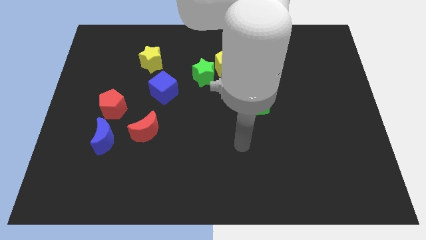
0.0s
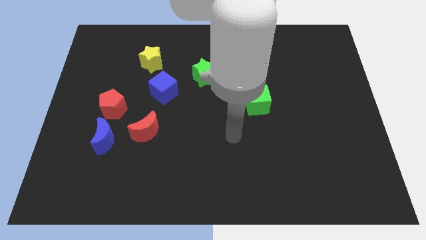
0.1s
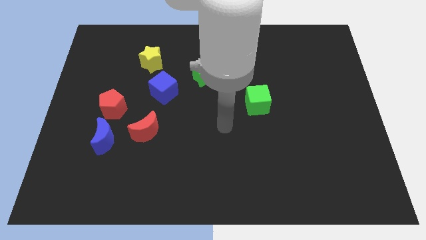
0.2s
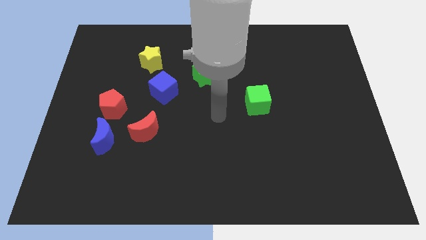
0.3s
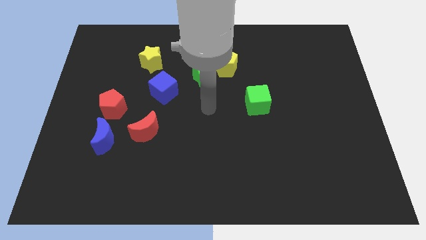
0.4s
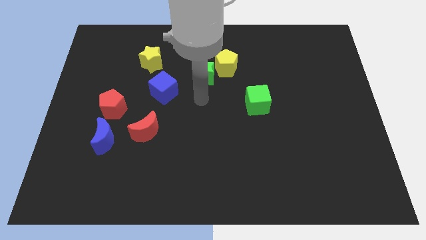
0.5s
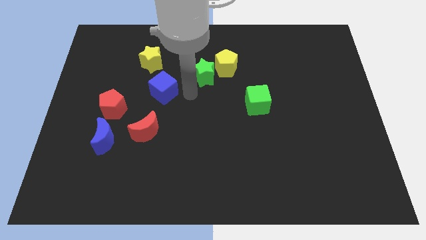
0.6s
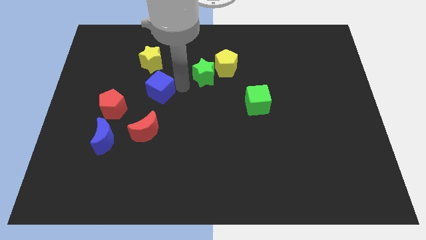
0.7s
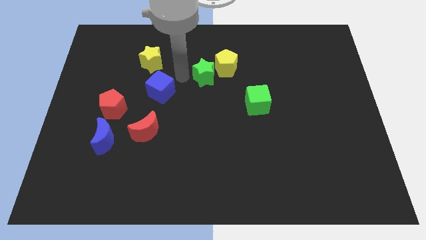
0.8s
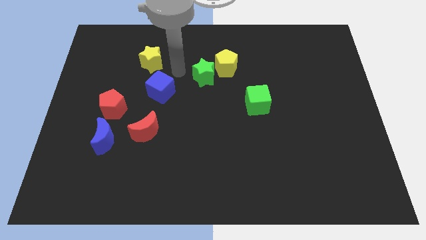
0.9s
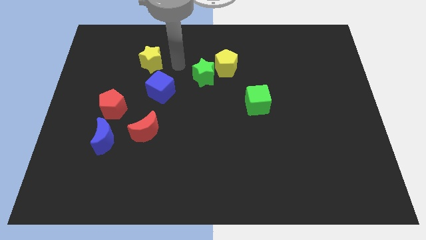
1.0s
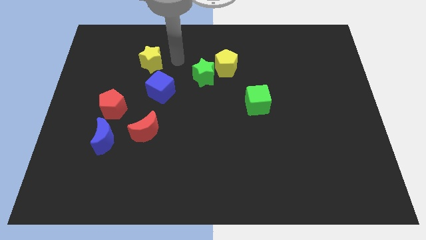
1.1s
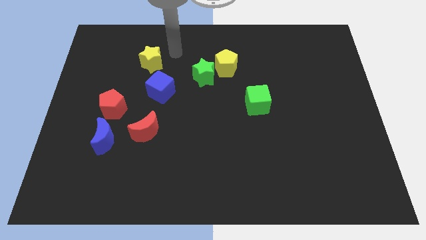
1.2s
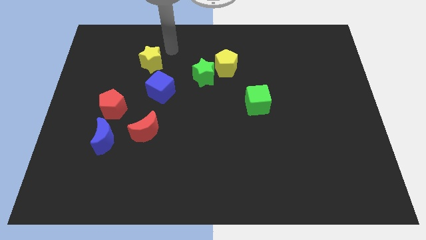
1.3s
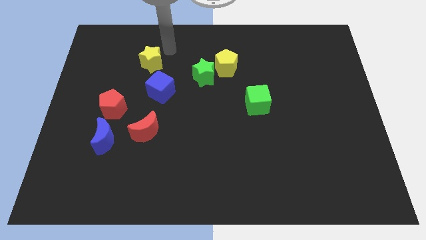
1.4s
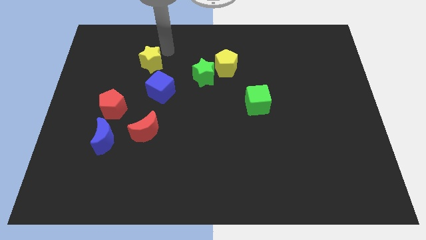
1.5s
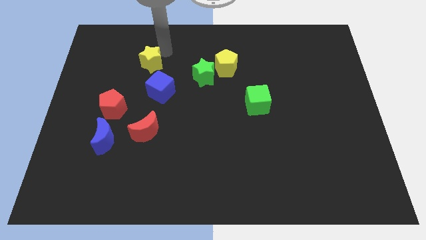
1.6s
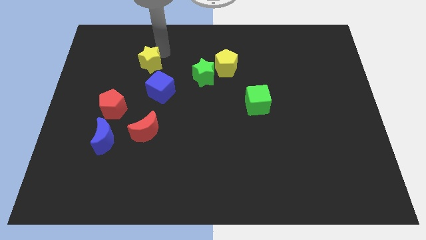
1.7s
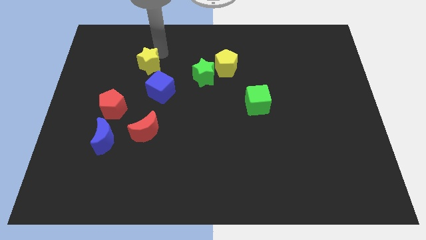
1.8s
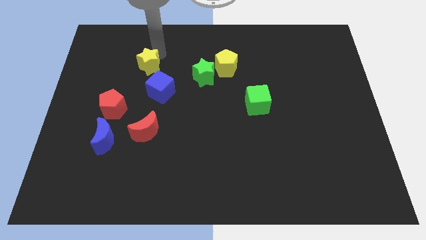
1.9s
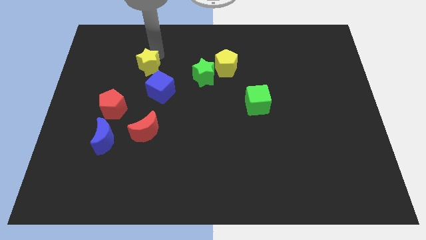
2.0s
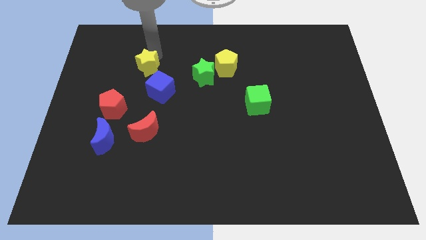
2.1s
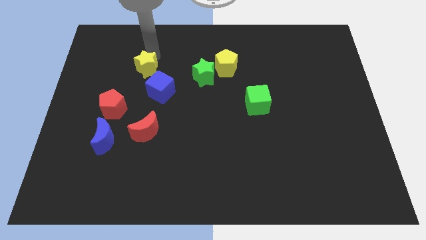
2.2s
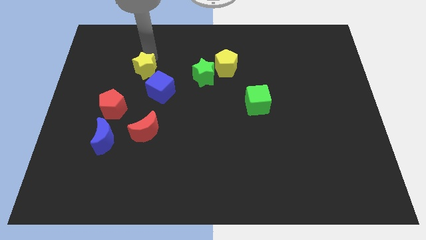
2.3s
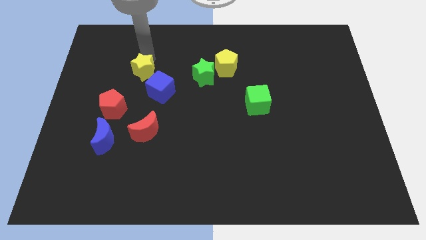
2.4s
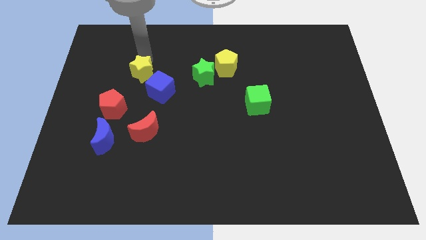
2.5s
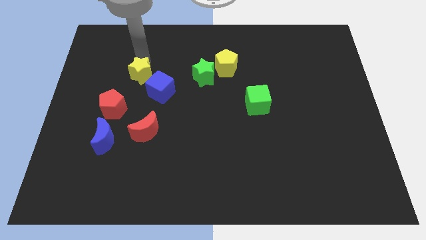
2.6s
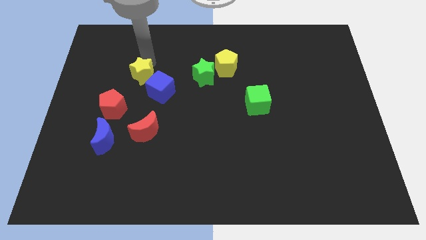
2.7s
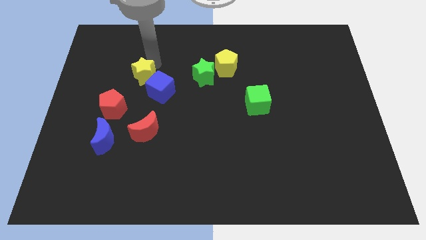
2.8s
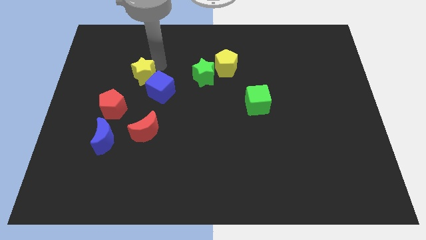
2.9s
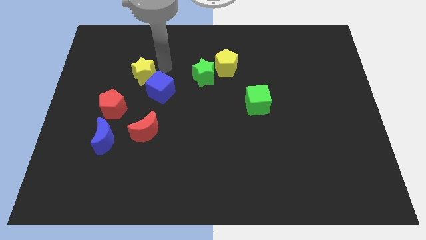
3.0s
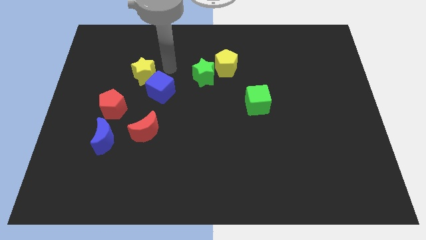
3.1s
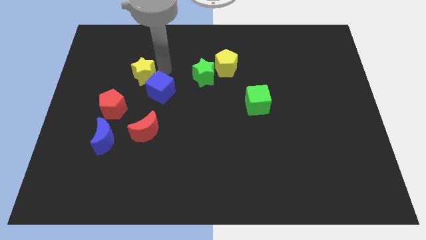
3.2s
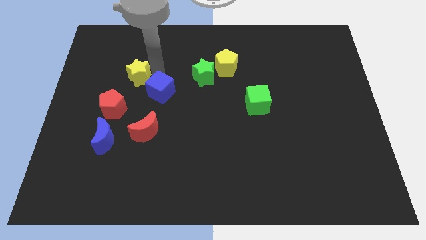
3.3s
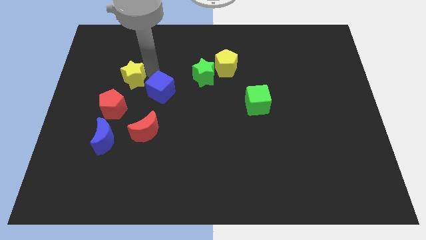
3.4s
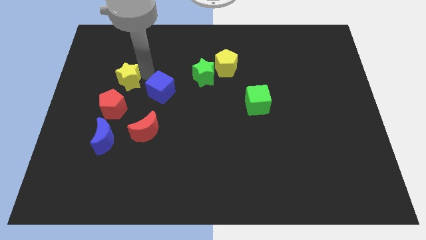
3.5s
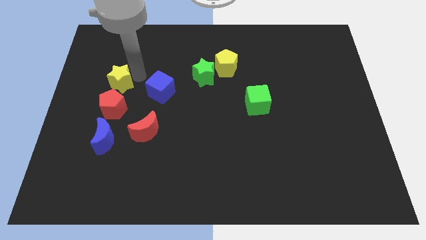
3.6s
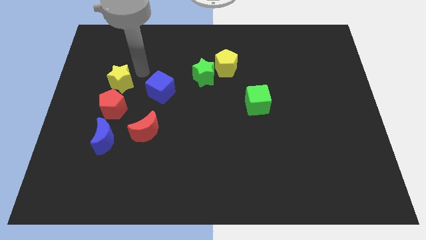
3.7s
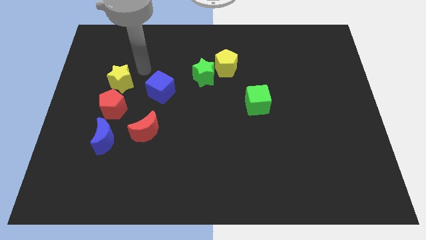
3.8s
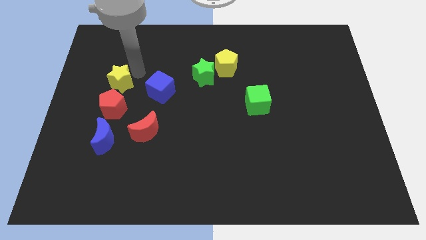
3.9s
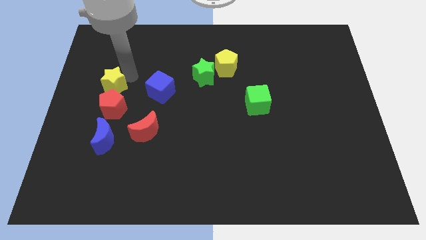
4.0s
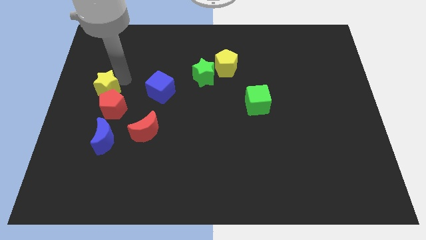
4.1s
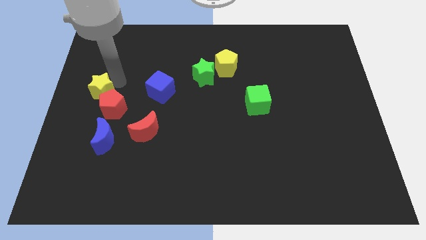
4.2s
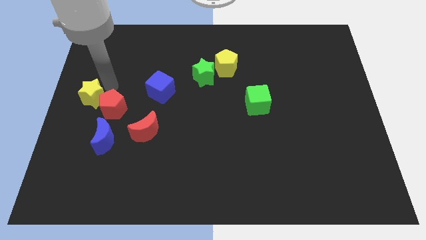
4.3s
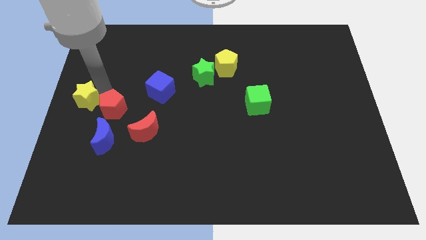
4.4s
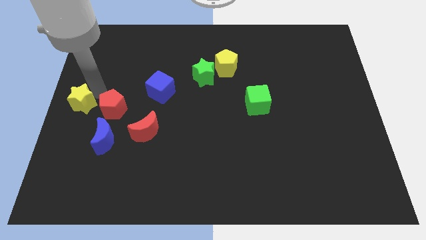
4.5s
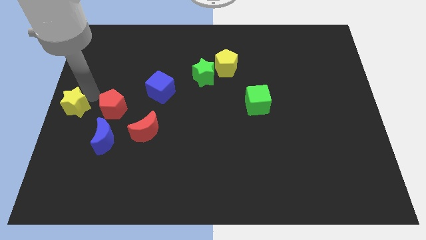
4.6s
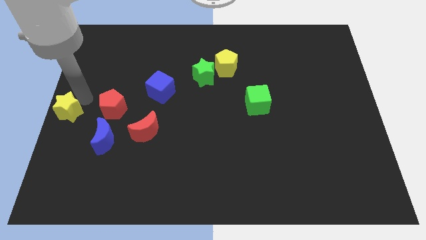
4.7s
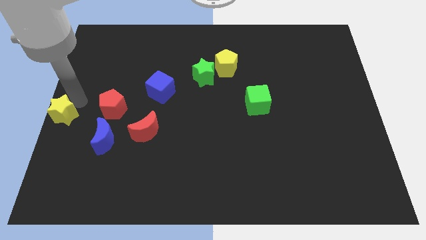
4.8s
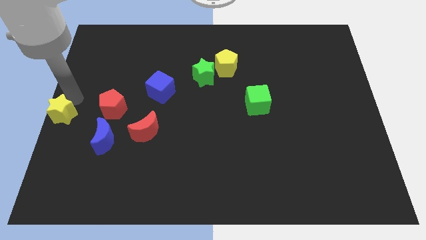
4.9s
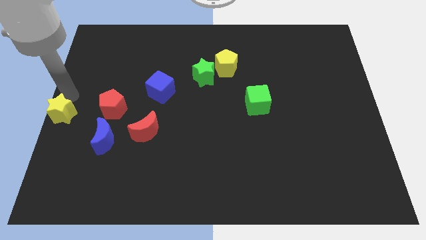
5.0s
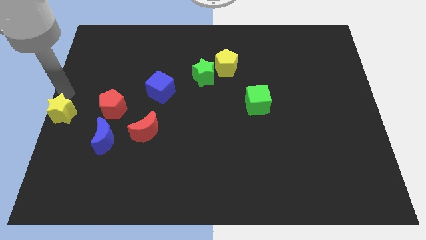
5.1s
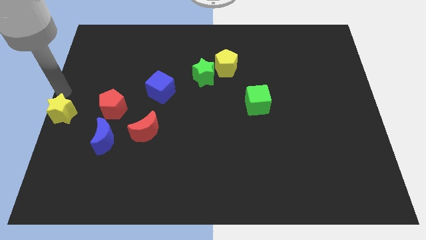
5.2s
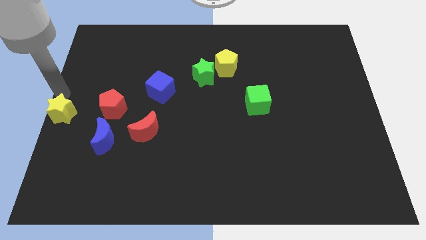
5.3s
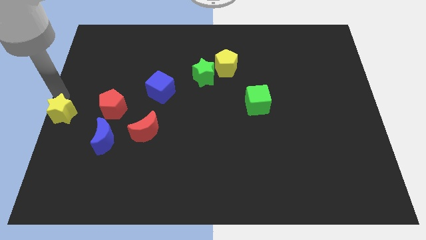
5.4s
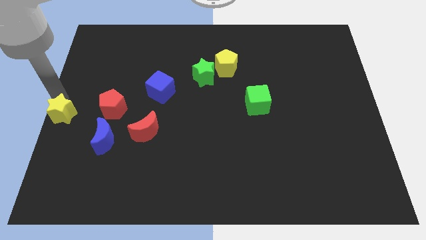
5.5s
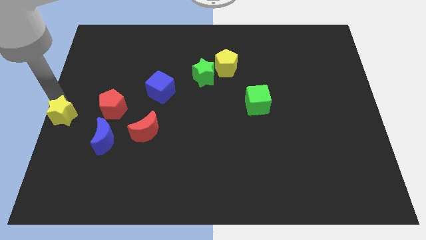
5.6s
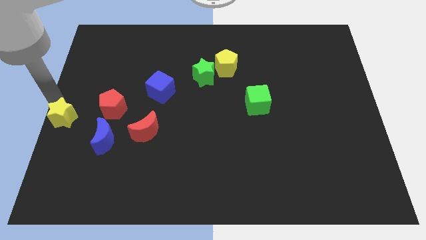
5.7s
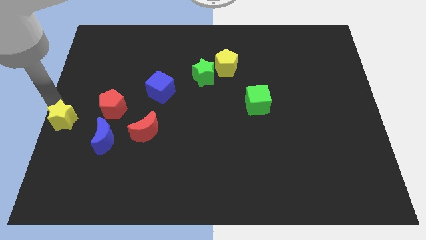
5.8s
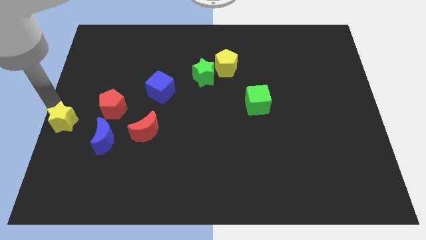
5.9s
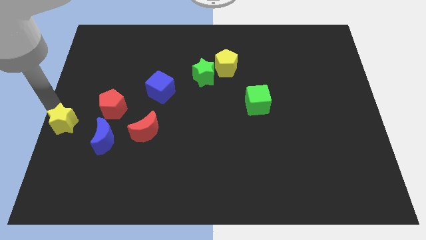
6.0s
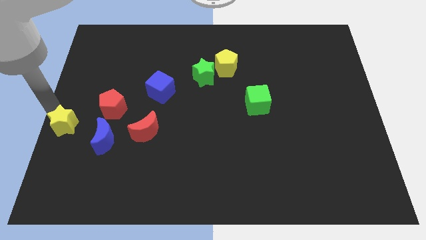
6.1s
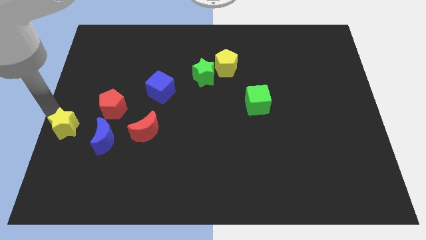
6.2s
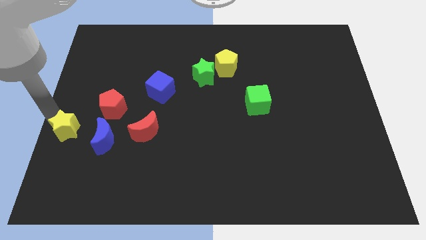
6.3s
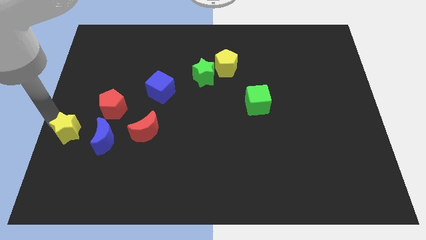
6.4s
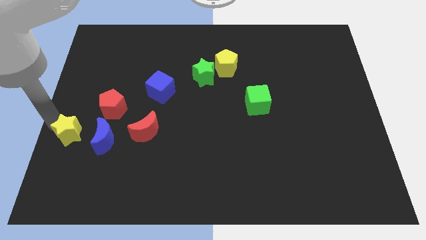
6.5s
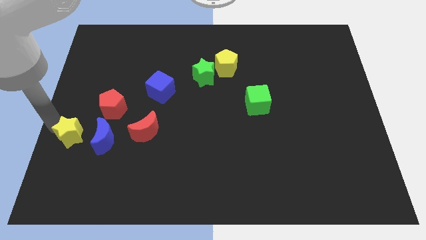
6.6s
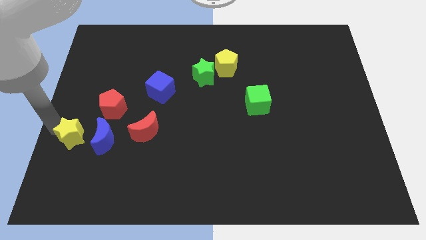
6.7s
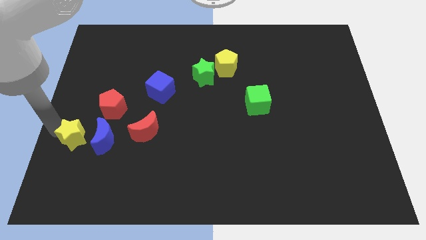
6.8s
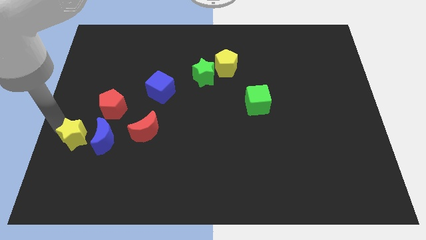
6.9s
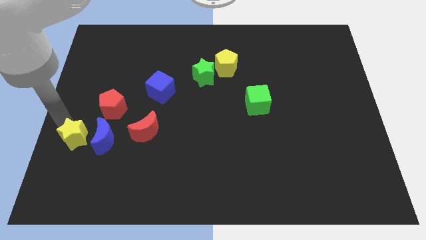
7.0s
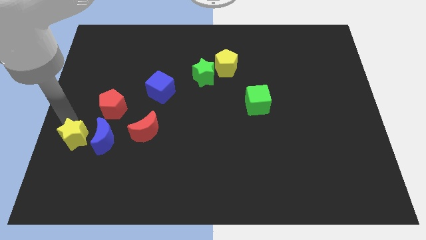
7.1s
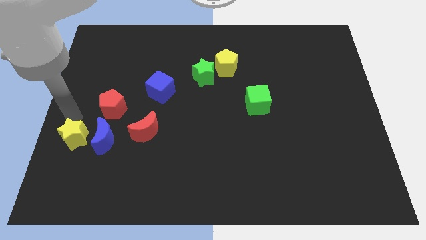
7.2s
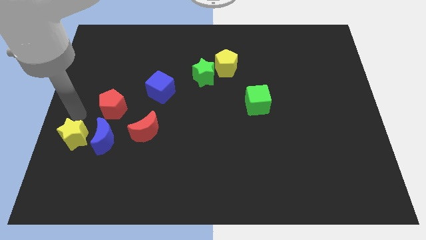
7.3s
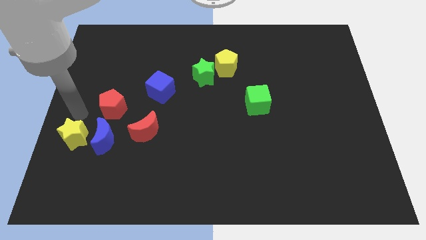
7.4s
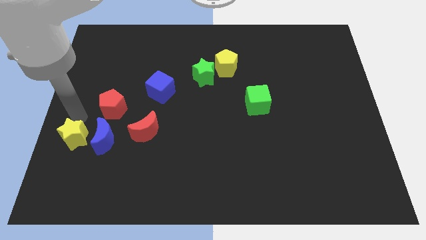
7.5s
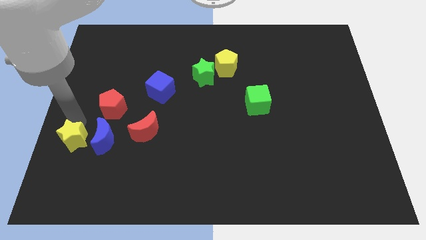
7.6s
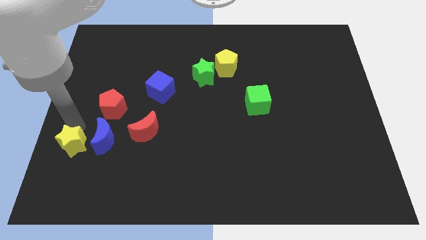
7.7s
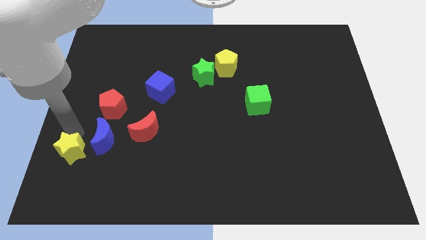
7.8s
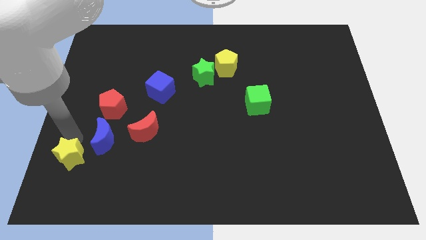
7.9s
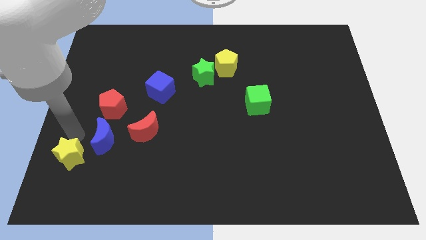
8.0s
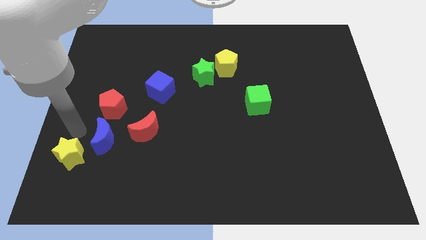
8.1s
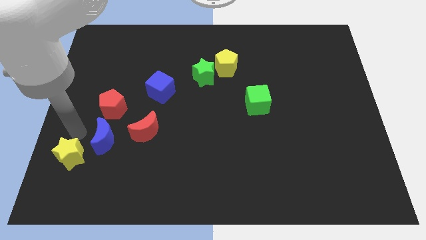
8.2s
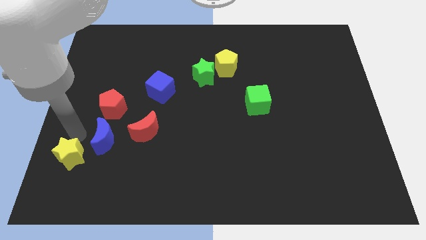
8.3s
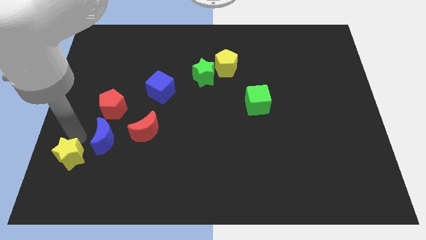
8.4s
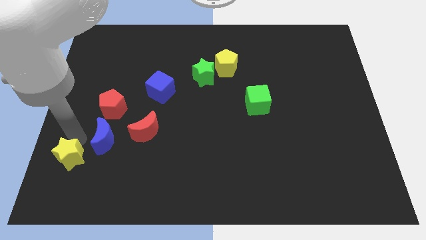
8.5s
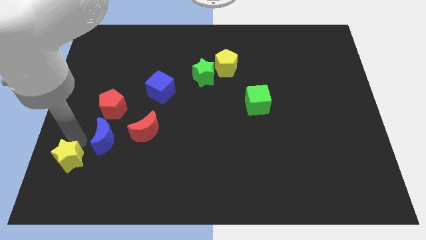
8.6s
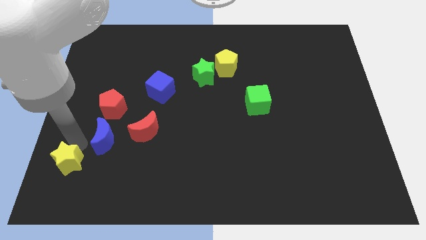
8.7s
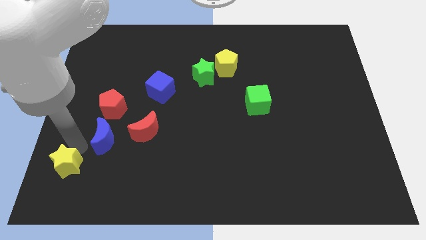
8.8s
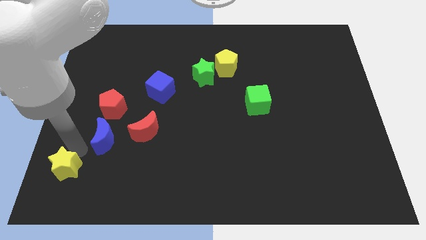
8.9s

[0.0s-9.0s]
push the yellow star to the bottom left
